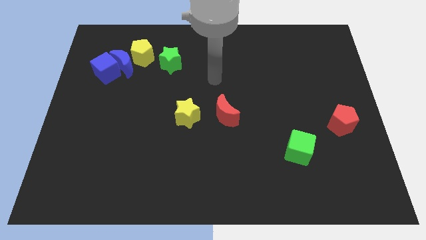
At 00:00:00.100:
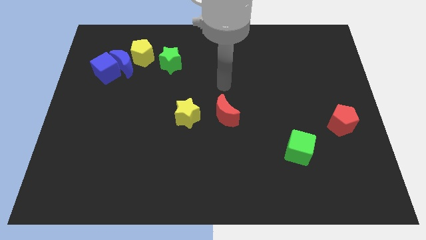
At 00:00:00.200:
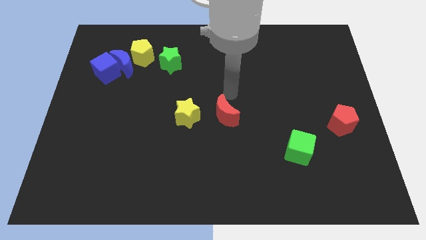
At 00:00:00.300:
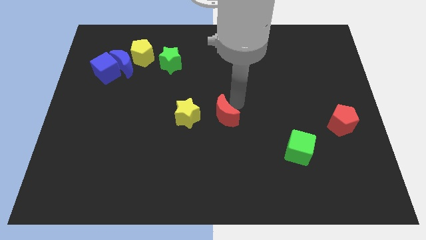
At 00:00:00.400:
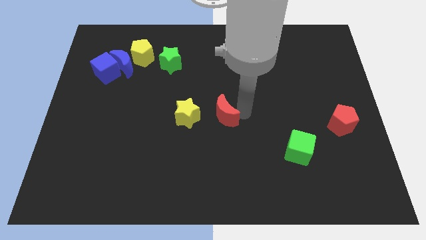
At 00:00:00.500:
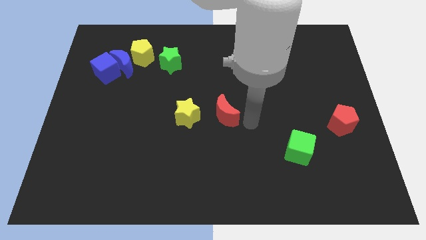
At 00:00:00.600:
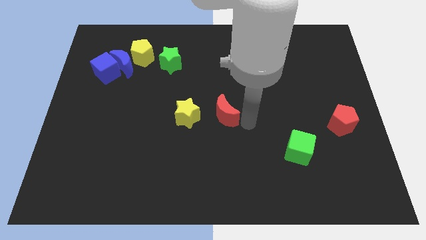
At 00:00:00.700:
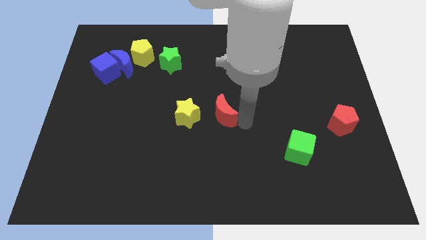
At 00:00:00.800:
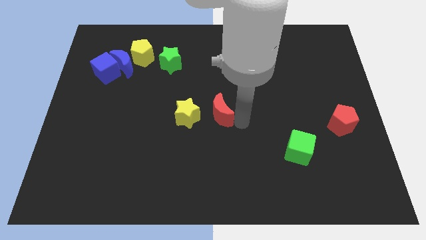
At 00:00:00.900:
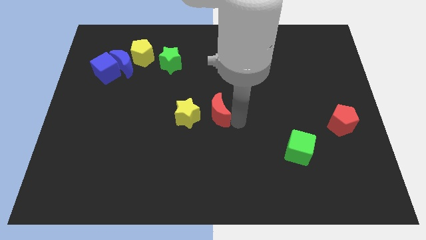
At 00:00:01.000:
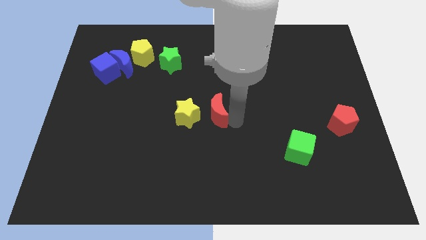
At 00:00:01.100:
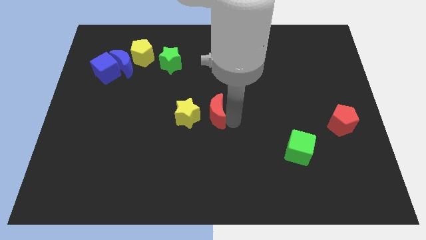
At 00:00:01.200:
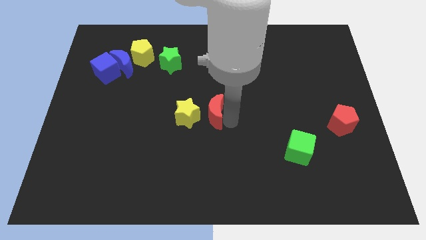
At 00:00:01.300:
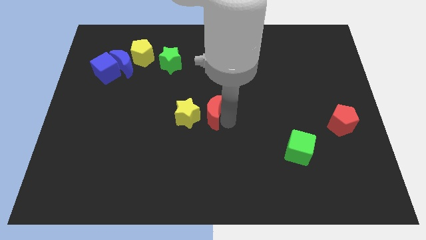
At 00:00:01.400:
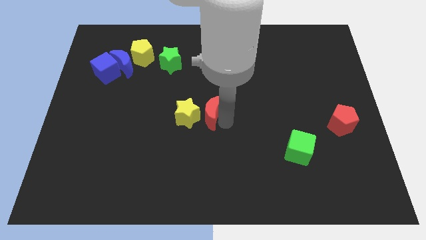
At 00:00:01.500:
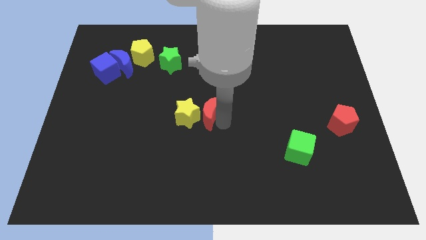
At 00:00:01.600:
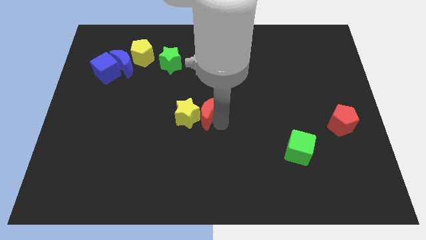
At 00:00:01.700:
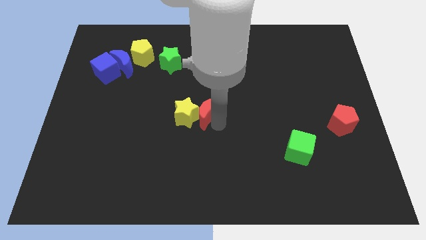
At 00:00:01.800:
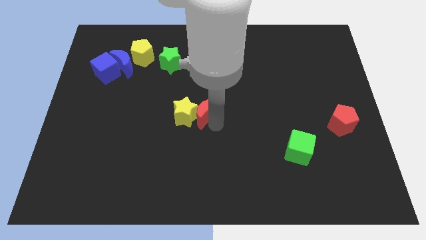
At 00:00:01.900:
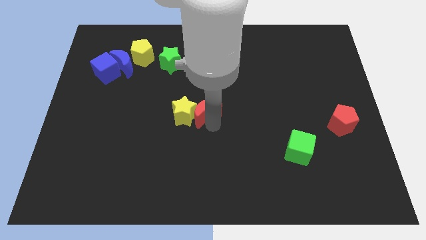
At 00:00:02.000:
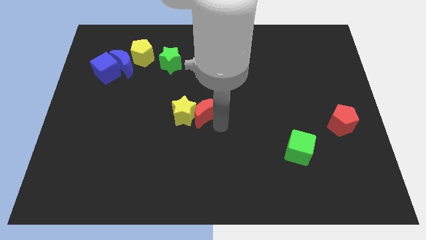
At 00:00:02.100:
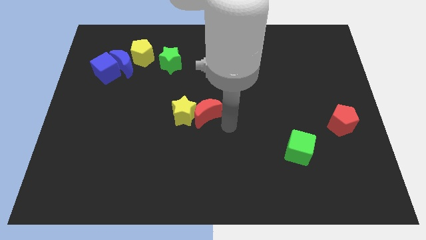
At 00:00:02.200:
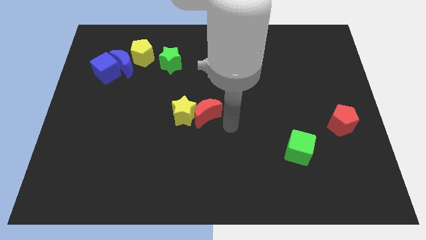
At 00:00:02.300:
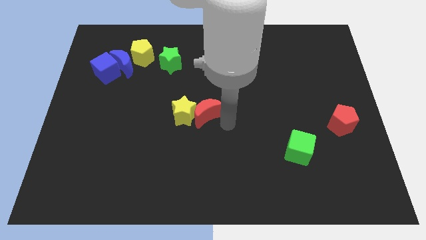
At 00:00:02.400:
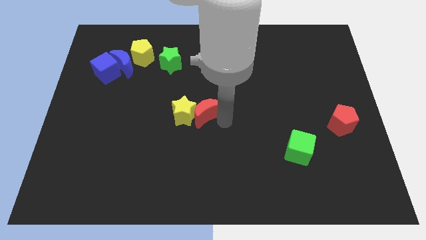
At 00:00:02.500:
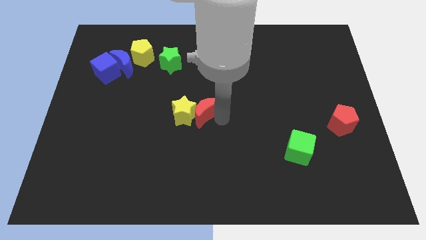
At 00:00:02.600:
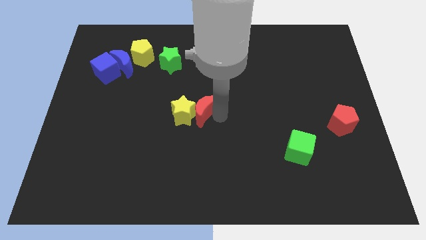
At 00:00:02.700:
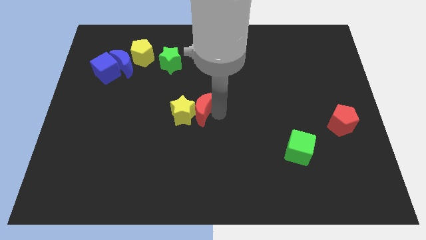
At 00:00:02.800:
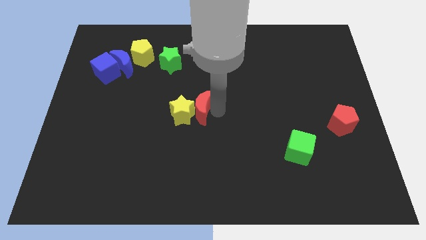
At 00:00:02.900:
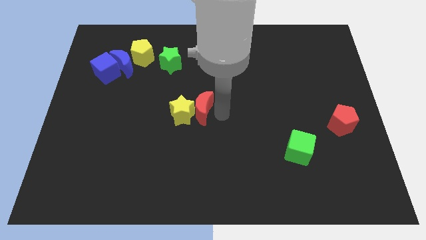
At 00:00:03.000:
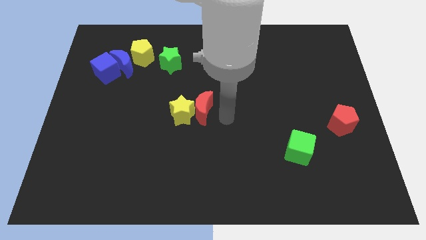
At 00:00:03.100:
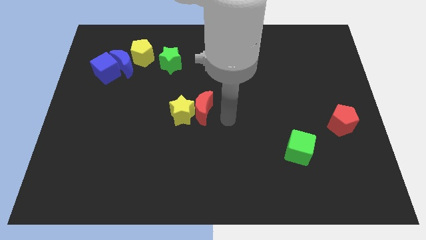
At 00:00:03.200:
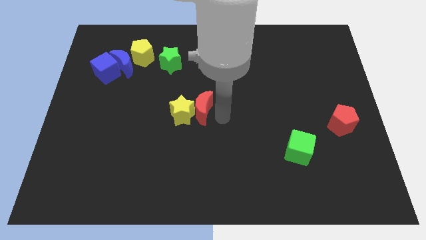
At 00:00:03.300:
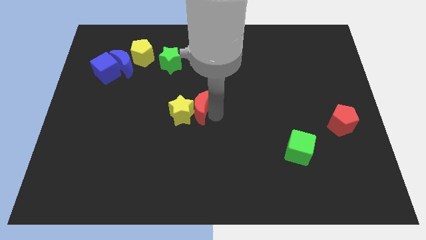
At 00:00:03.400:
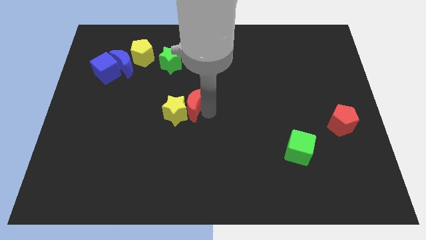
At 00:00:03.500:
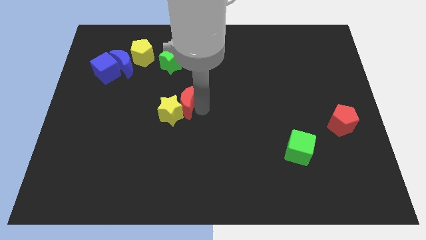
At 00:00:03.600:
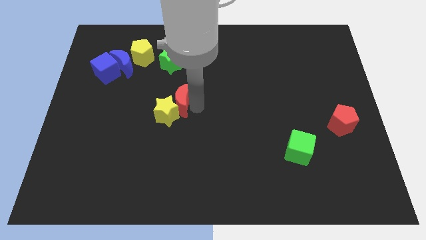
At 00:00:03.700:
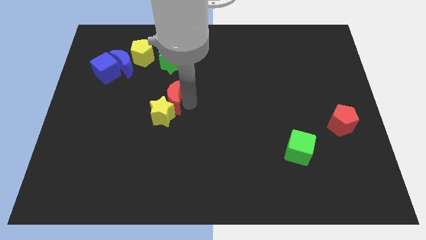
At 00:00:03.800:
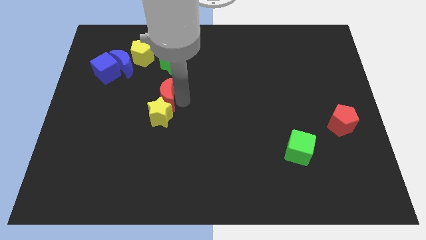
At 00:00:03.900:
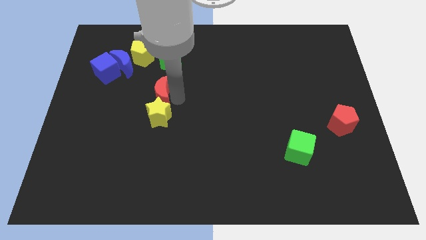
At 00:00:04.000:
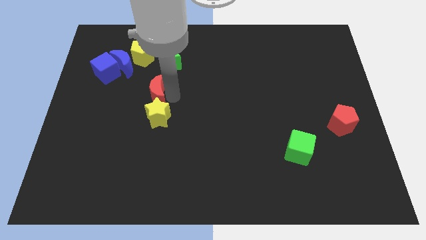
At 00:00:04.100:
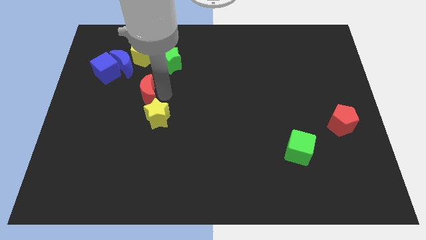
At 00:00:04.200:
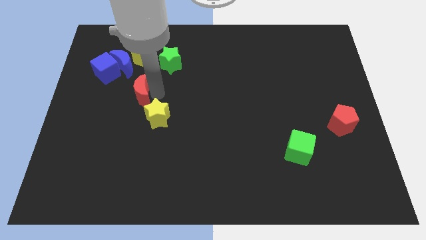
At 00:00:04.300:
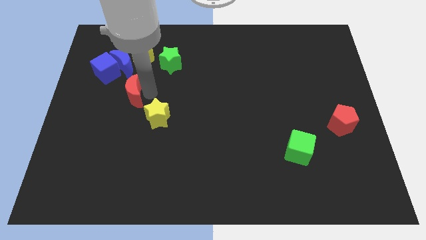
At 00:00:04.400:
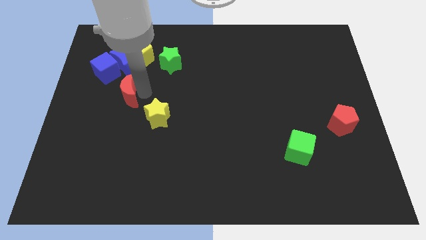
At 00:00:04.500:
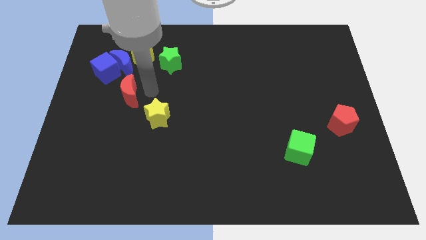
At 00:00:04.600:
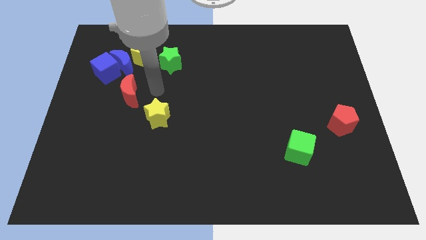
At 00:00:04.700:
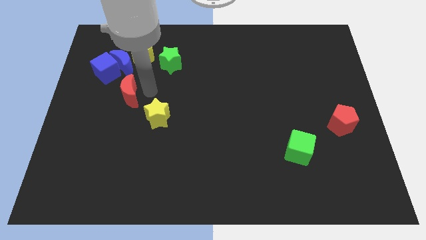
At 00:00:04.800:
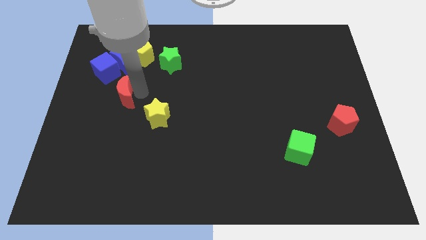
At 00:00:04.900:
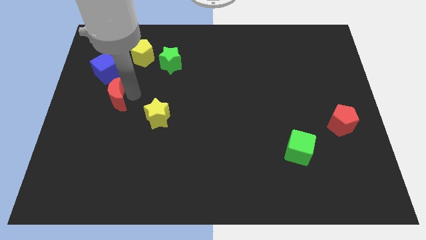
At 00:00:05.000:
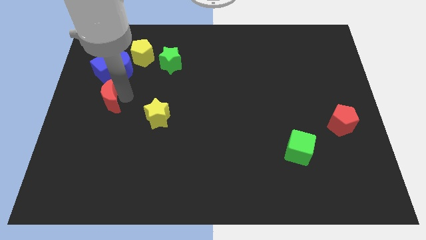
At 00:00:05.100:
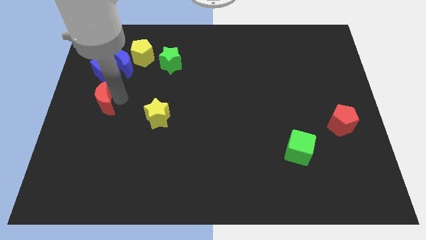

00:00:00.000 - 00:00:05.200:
put the red moon to the left side of the board

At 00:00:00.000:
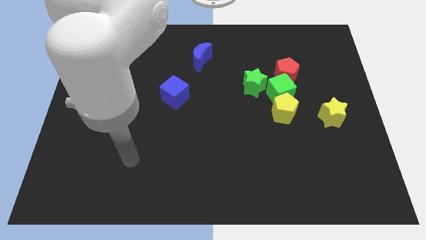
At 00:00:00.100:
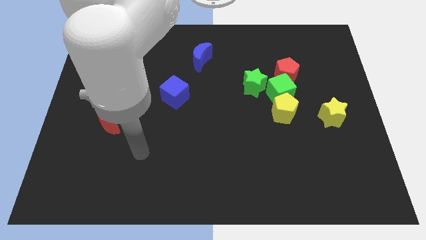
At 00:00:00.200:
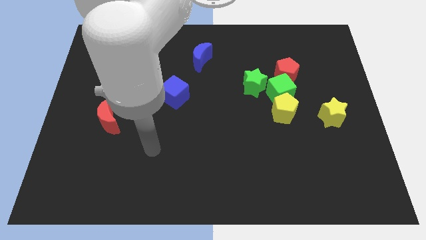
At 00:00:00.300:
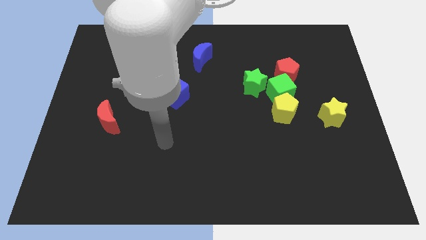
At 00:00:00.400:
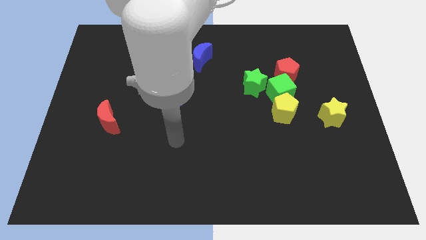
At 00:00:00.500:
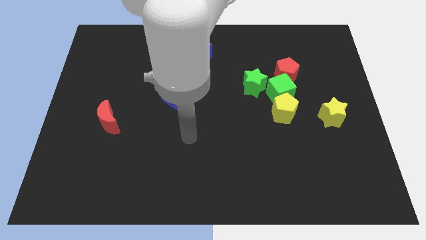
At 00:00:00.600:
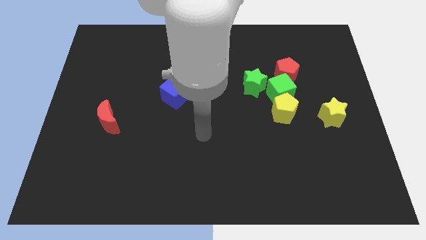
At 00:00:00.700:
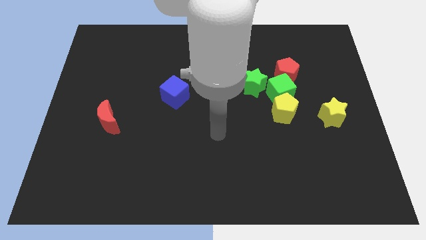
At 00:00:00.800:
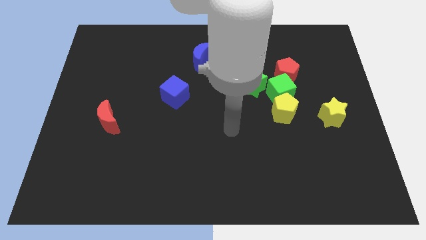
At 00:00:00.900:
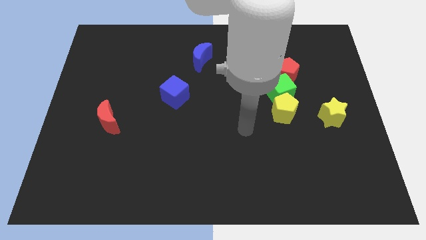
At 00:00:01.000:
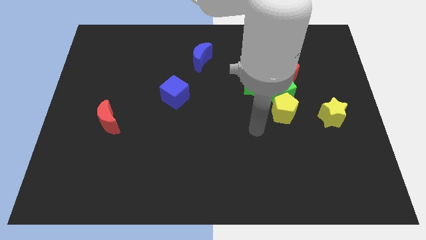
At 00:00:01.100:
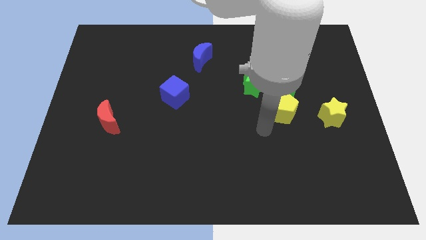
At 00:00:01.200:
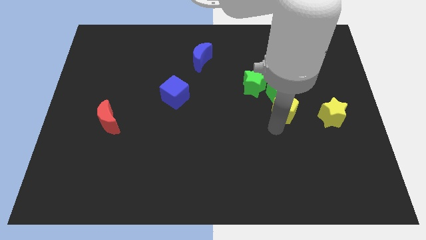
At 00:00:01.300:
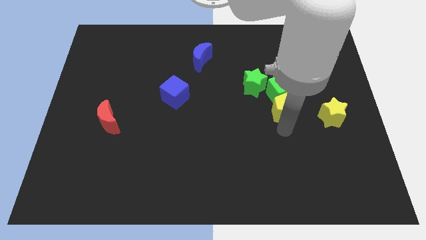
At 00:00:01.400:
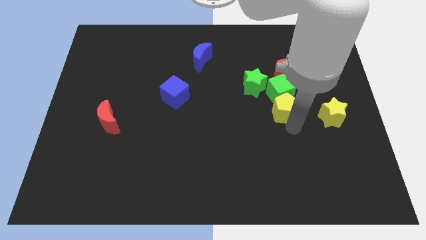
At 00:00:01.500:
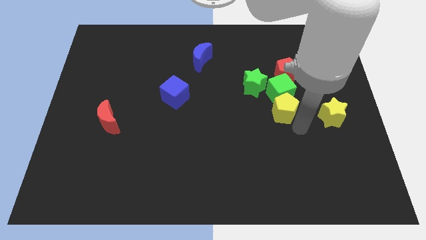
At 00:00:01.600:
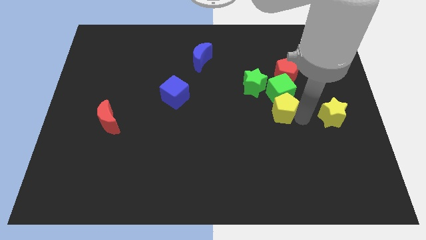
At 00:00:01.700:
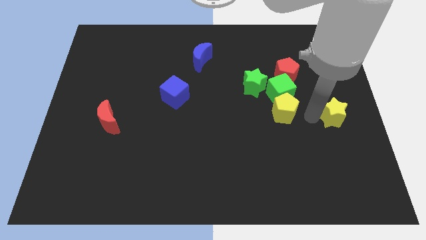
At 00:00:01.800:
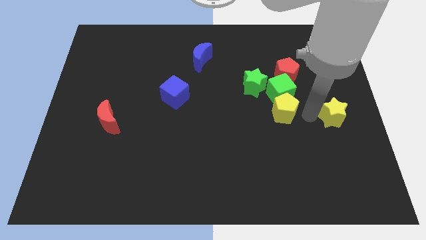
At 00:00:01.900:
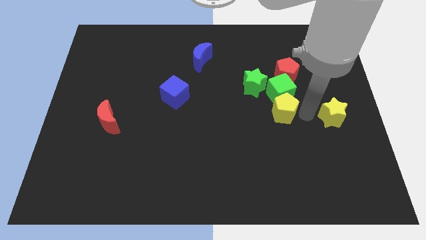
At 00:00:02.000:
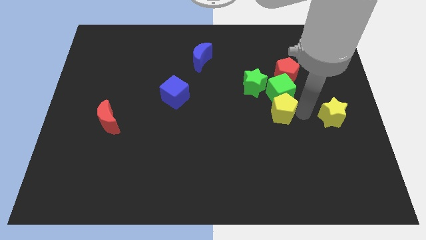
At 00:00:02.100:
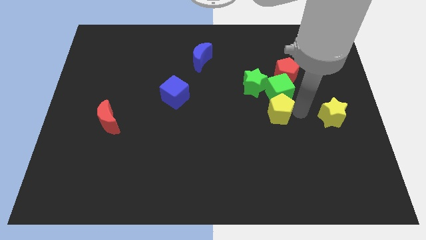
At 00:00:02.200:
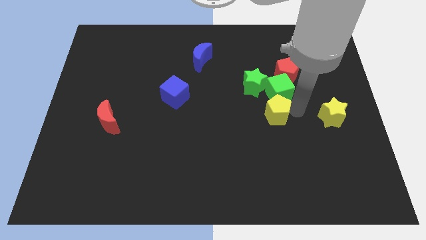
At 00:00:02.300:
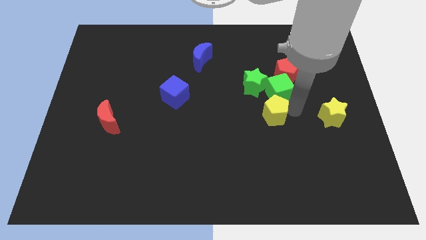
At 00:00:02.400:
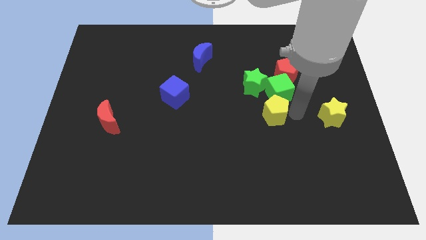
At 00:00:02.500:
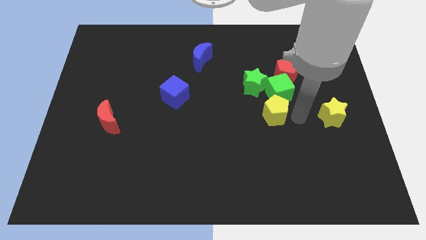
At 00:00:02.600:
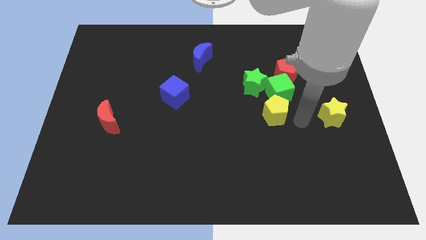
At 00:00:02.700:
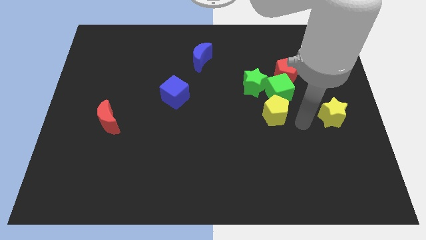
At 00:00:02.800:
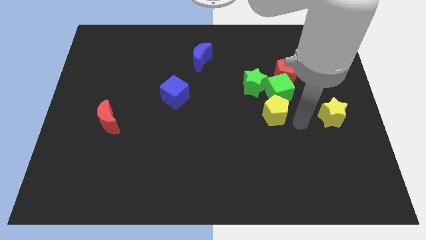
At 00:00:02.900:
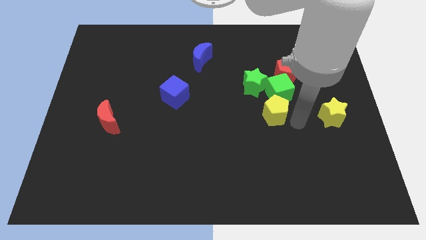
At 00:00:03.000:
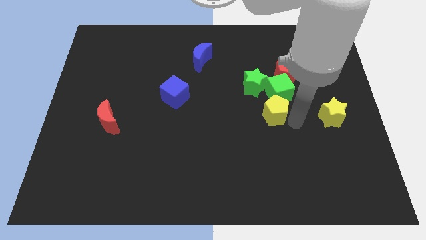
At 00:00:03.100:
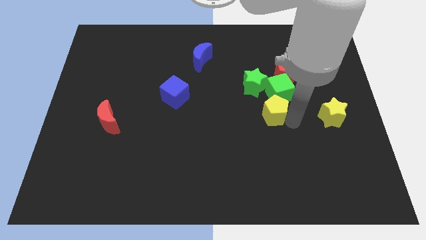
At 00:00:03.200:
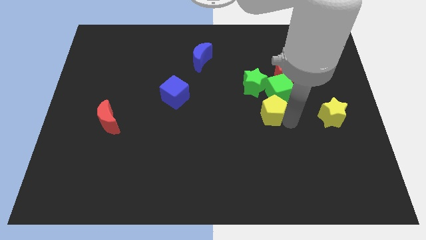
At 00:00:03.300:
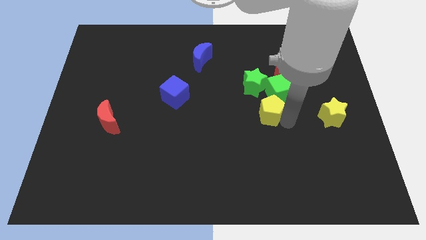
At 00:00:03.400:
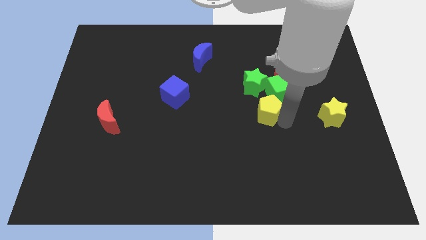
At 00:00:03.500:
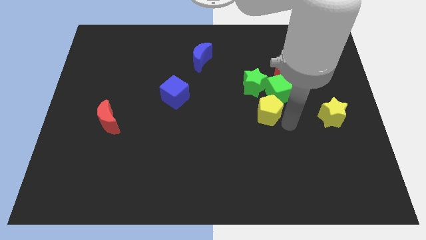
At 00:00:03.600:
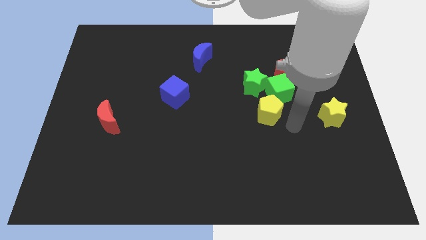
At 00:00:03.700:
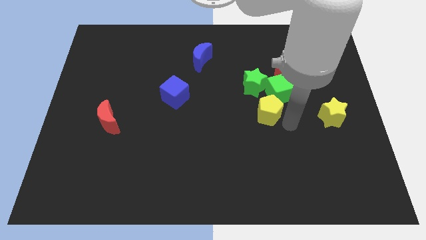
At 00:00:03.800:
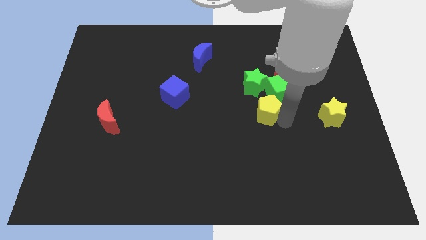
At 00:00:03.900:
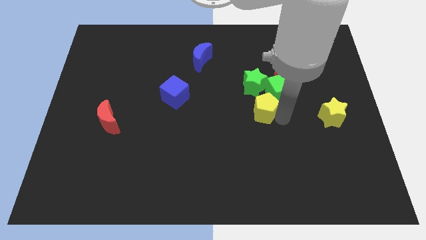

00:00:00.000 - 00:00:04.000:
put the yellow pentagon to the middle of the board
